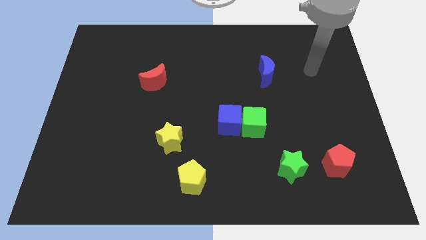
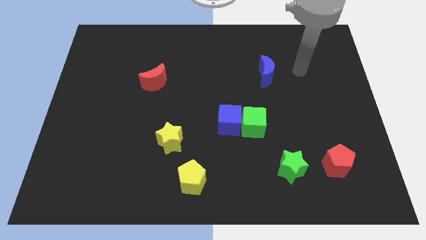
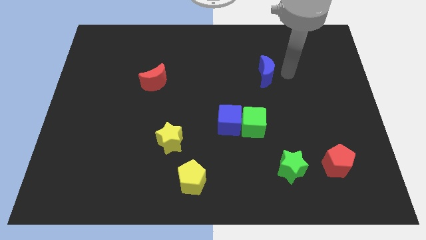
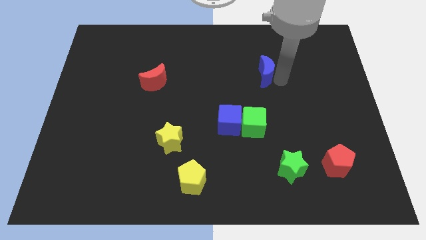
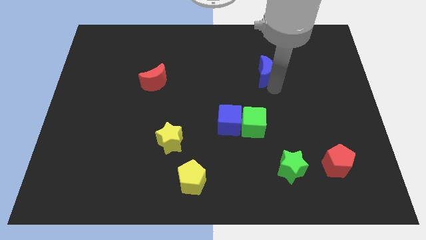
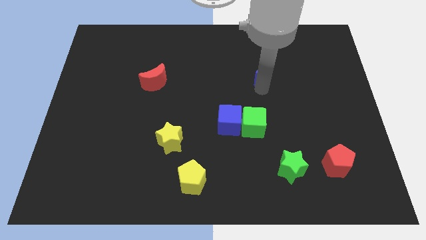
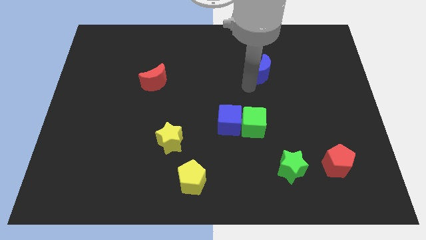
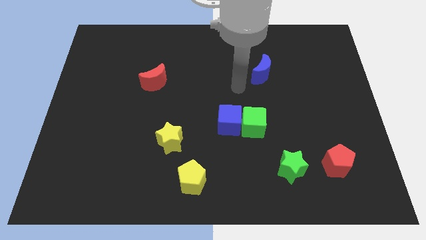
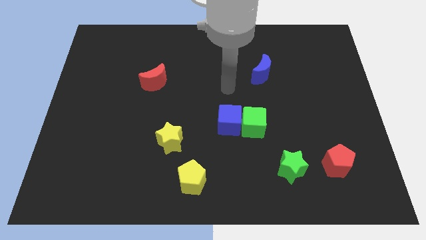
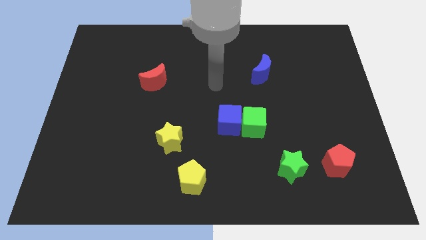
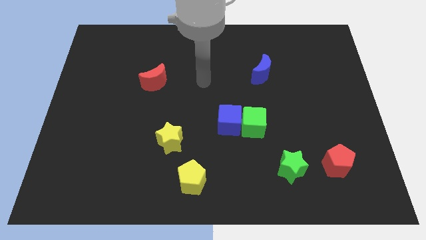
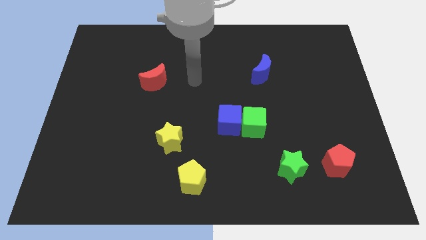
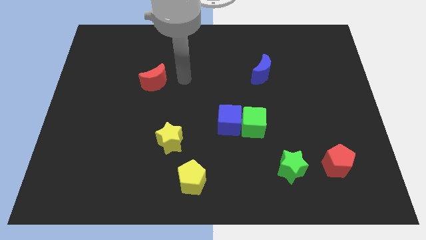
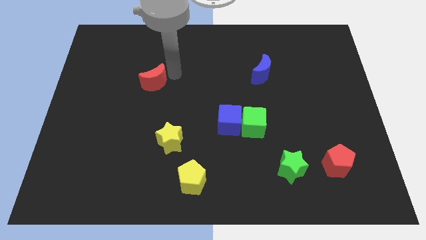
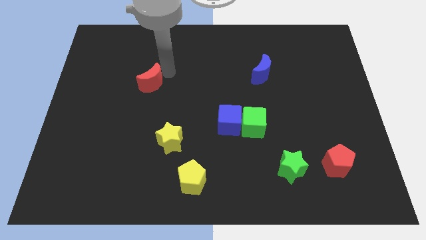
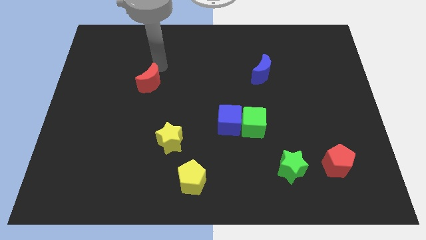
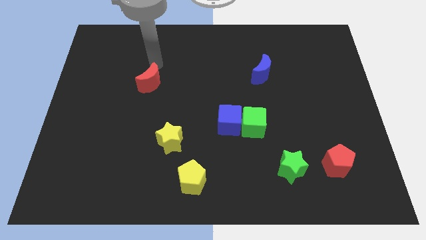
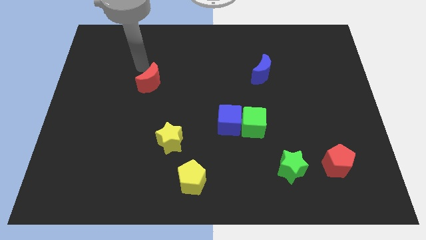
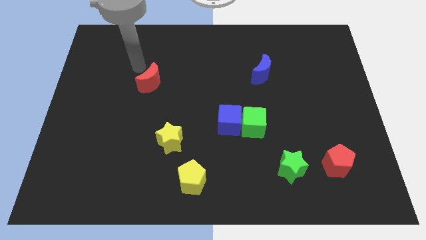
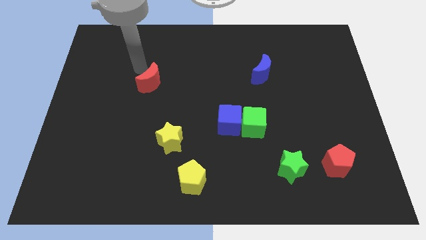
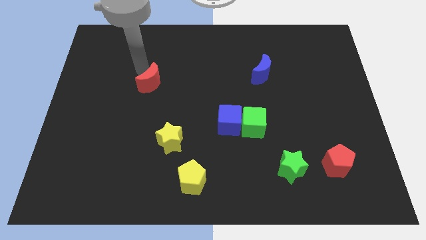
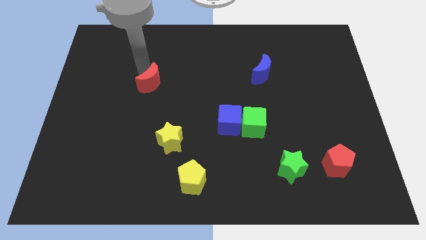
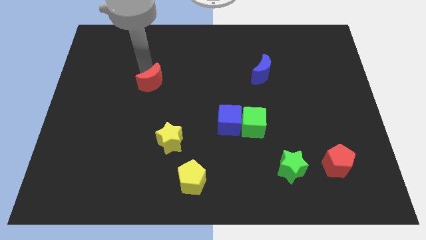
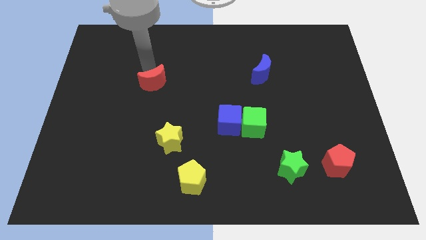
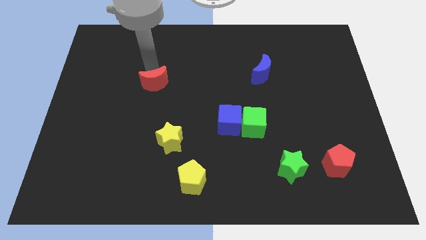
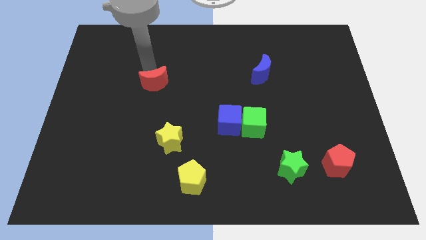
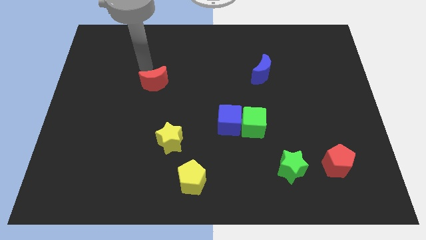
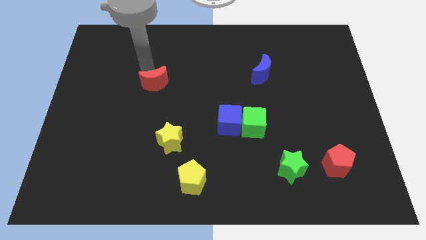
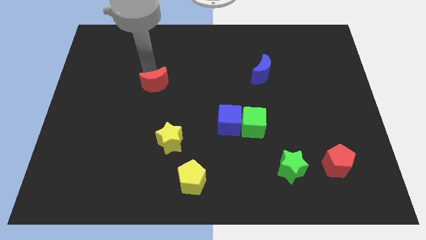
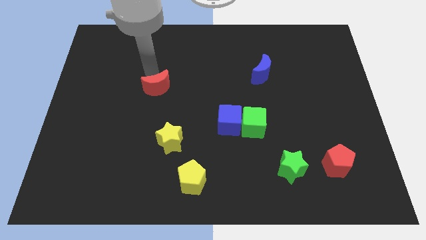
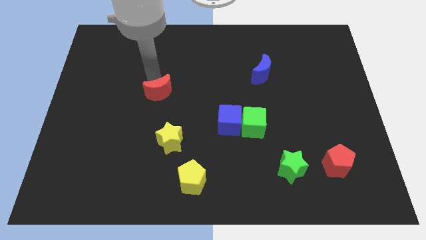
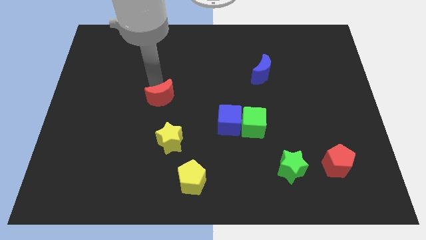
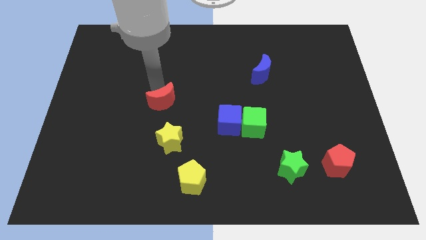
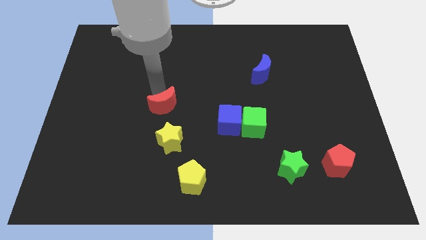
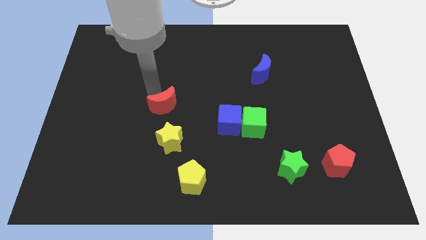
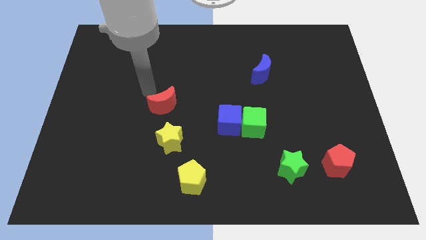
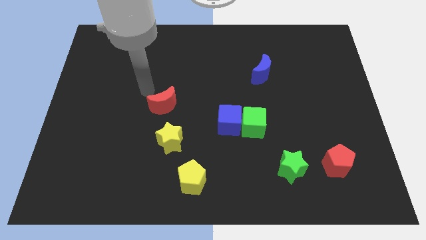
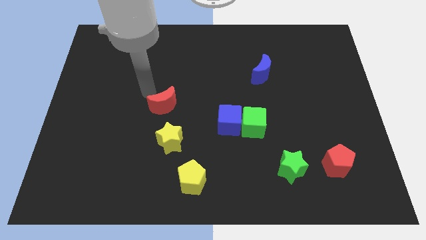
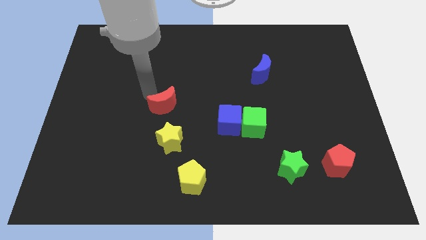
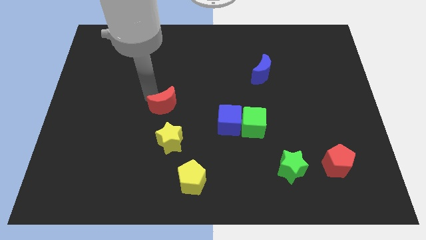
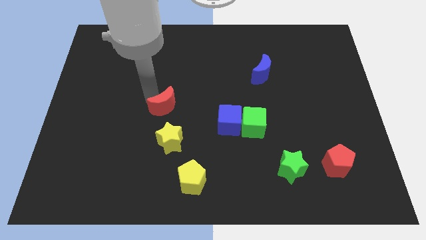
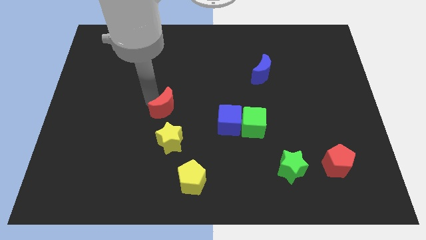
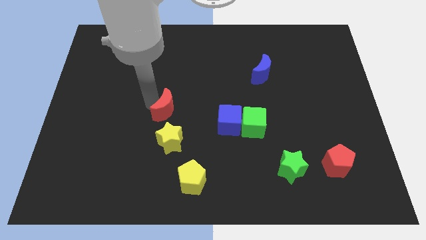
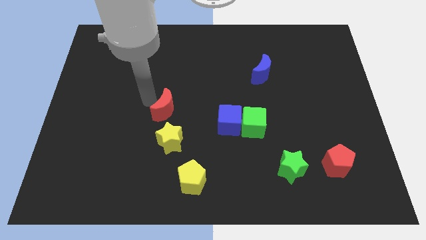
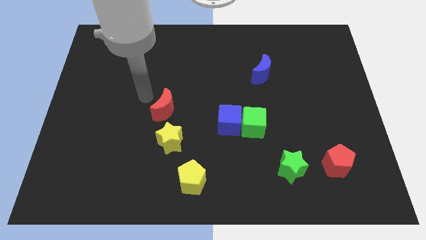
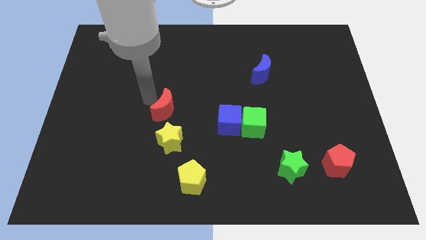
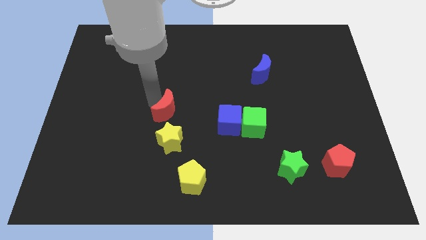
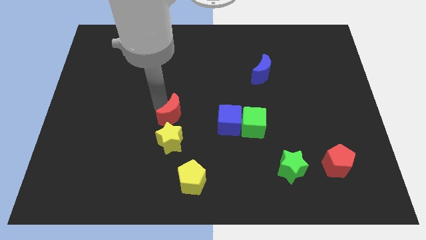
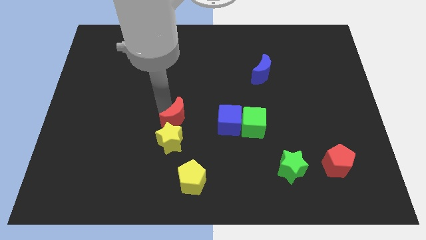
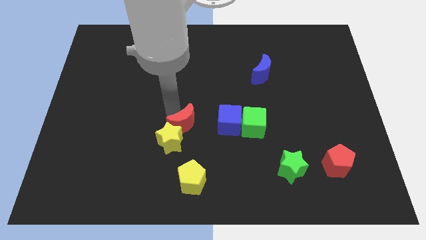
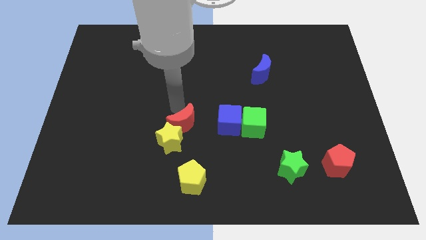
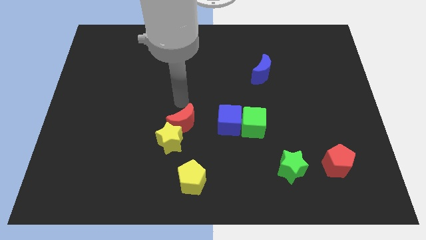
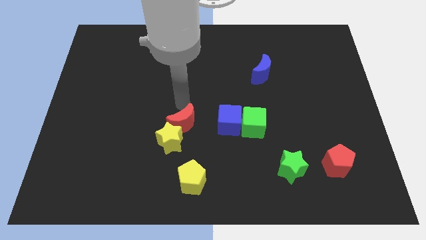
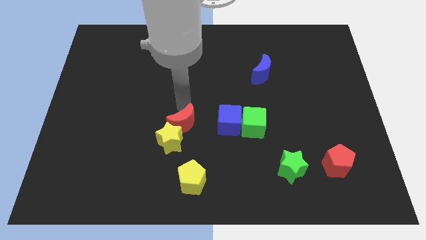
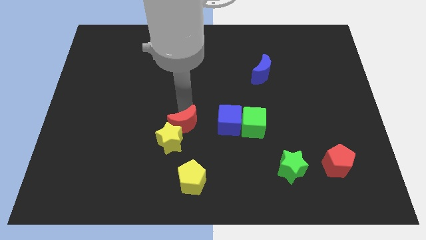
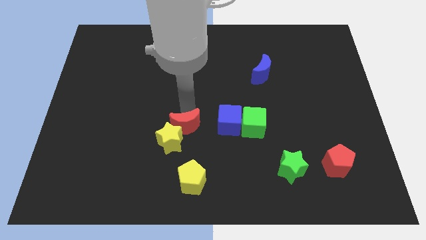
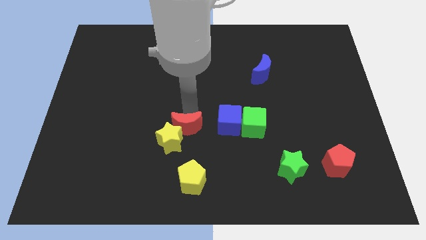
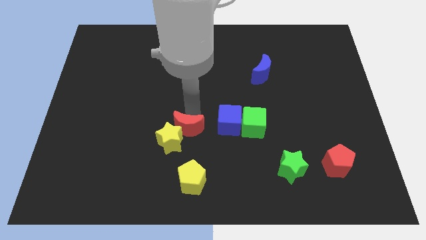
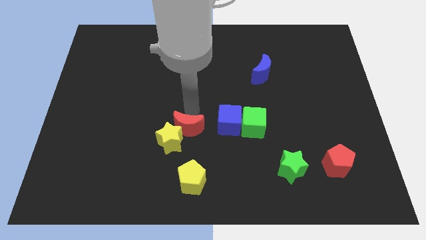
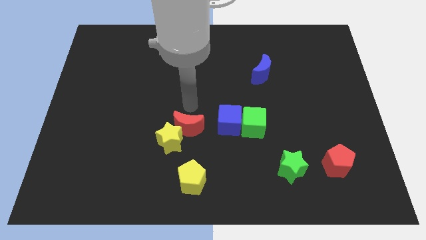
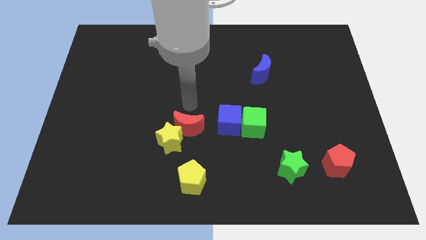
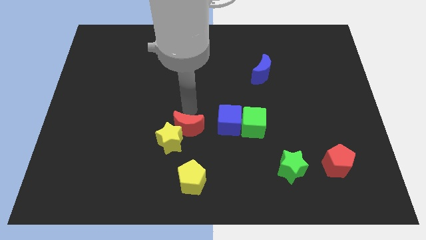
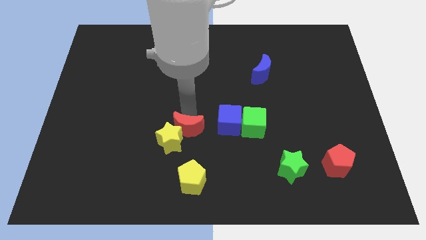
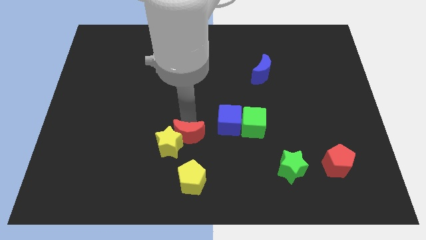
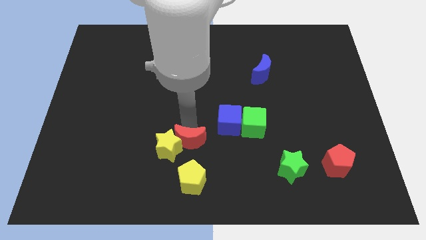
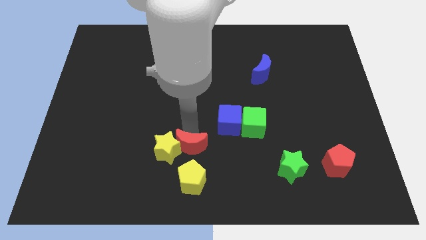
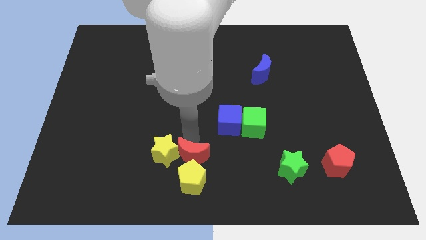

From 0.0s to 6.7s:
push the red moon towards the yellow pentagon

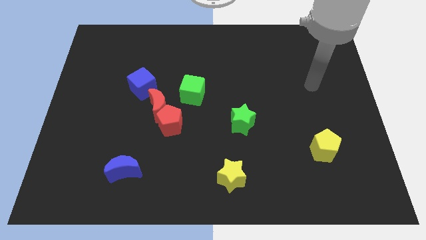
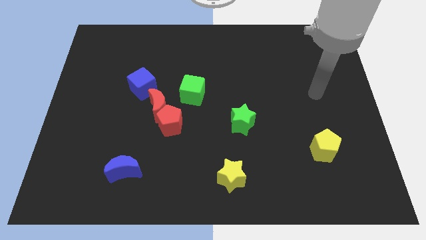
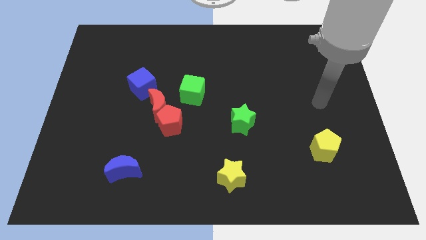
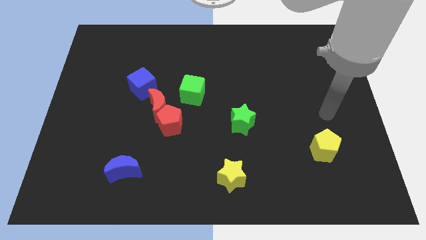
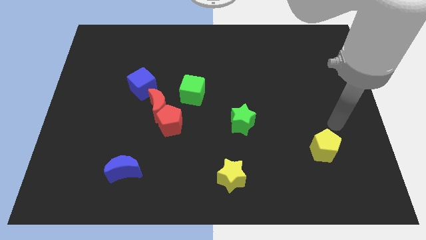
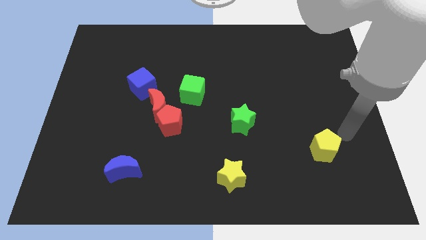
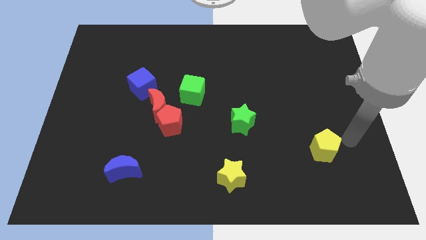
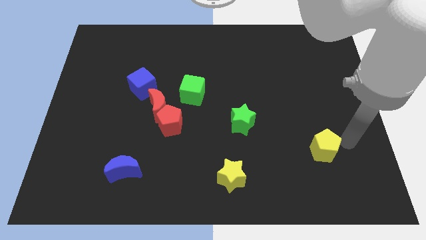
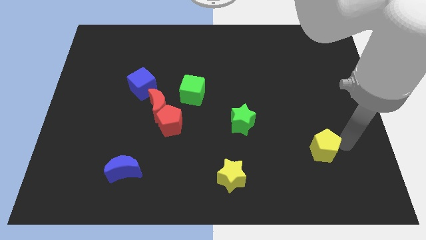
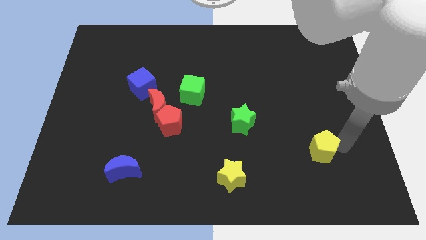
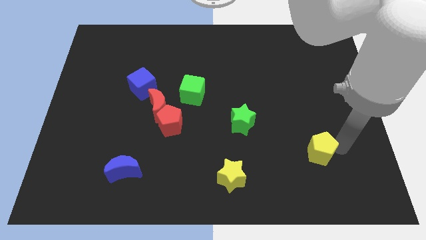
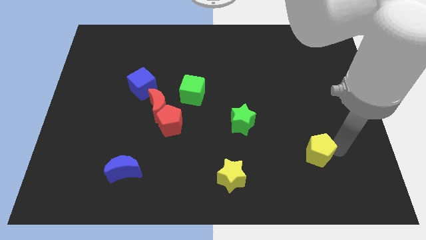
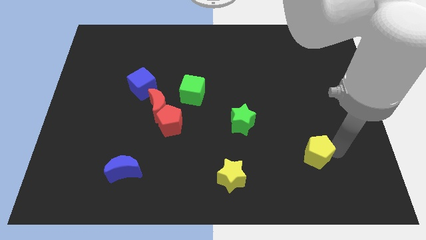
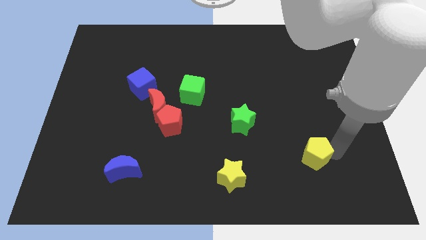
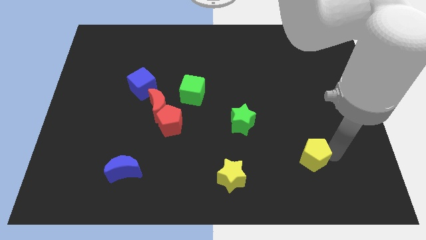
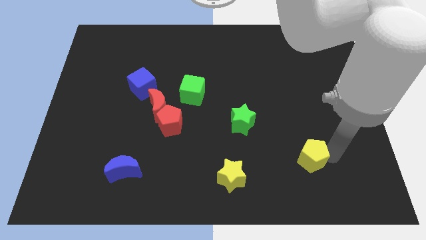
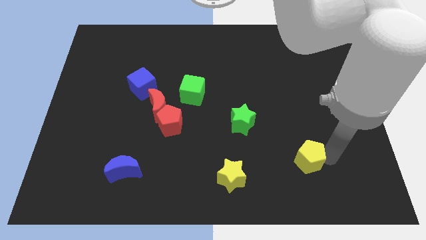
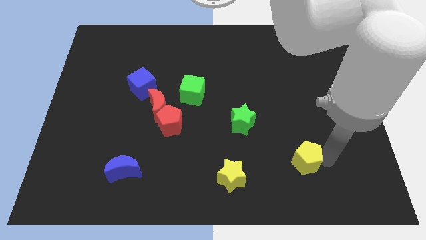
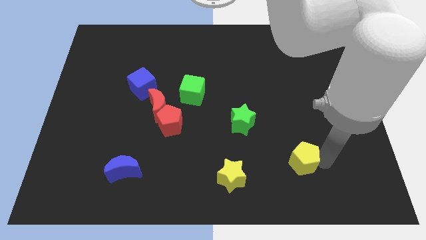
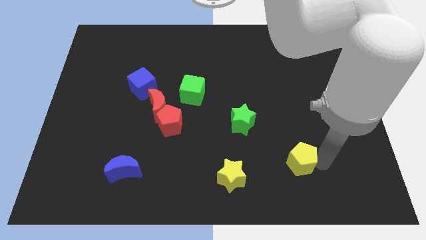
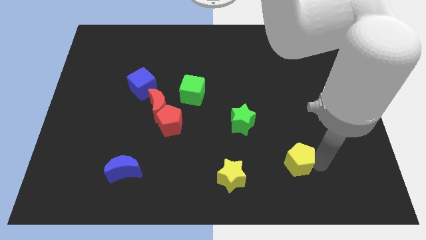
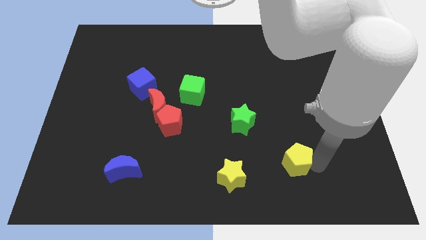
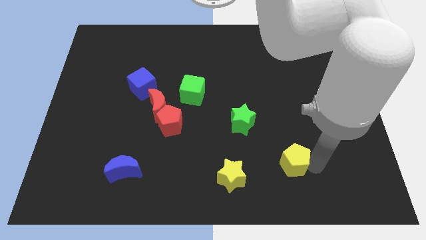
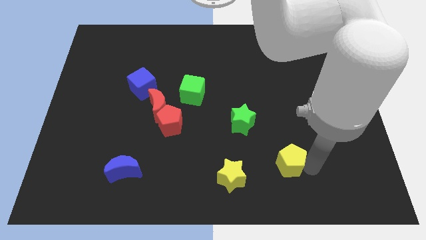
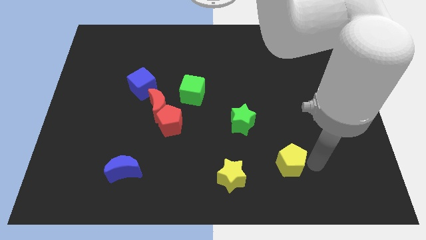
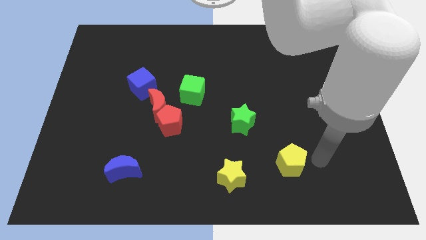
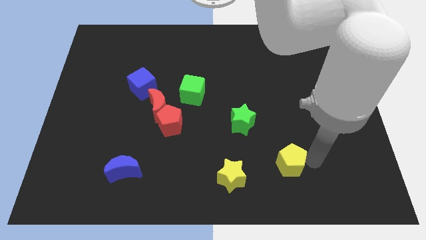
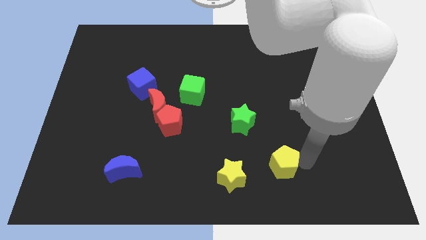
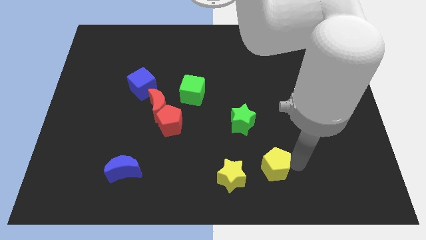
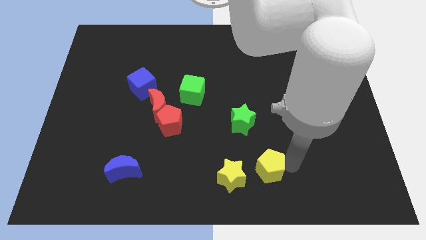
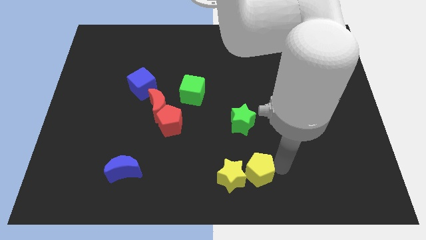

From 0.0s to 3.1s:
slide the yellow pentagon close to the yellow star
